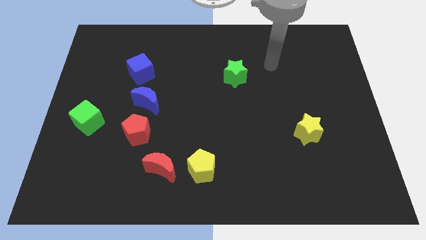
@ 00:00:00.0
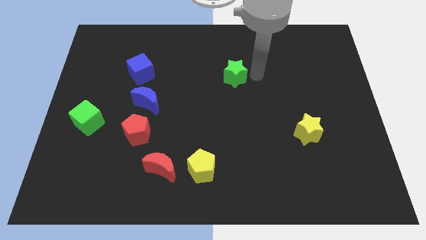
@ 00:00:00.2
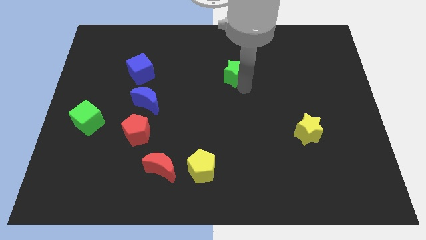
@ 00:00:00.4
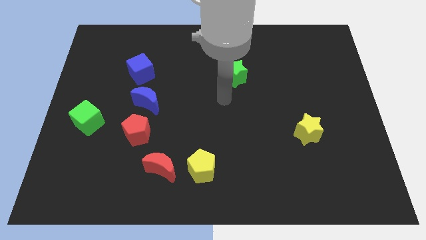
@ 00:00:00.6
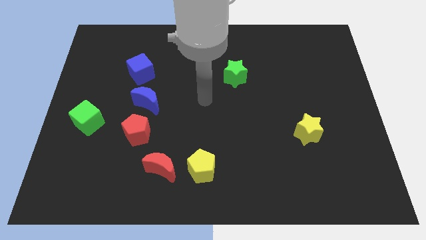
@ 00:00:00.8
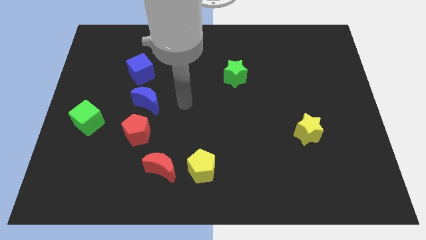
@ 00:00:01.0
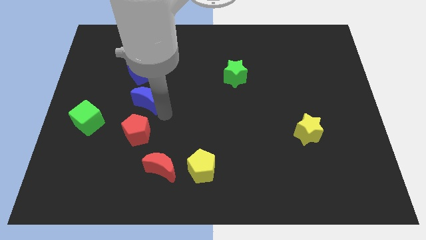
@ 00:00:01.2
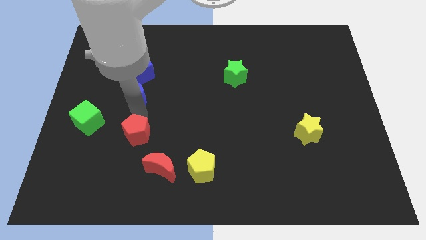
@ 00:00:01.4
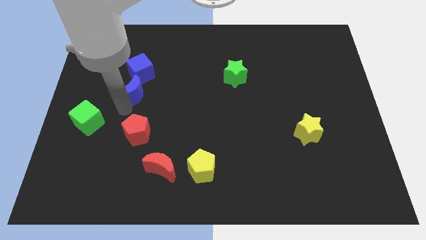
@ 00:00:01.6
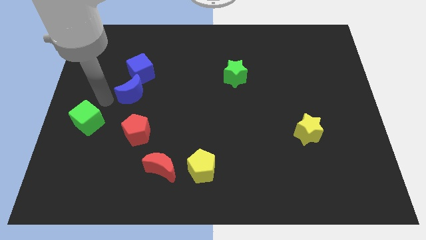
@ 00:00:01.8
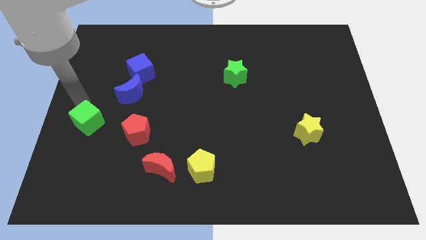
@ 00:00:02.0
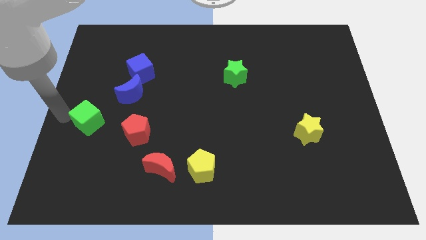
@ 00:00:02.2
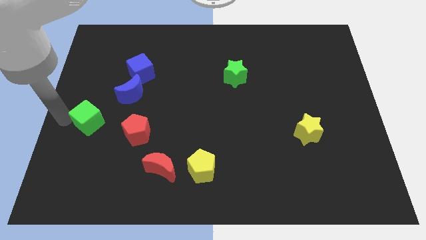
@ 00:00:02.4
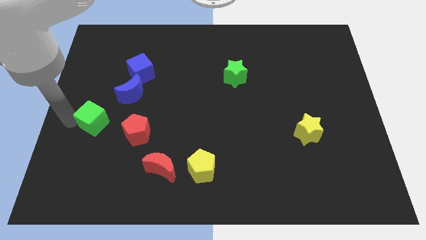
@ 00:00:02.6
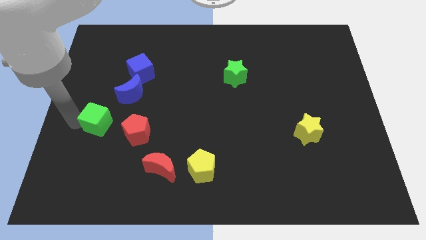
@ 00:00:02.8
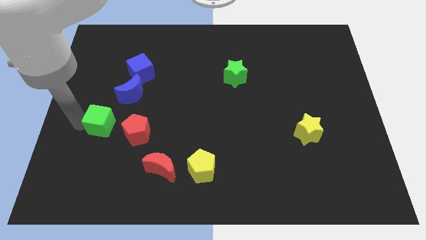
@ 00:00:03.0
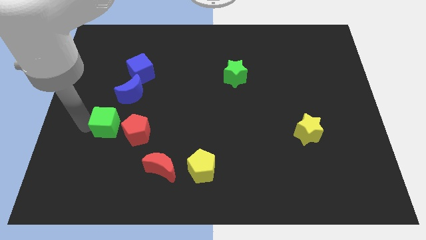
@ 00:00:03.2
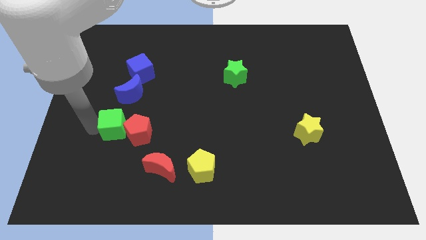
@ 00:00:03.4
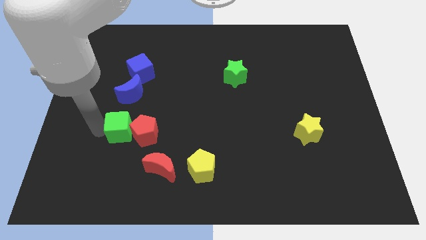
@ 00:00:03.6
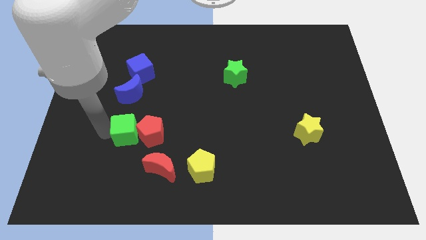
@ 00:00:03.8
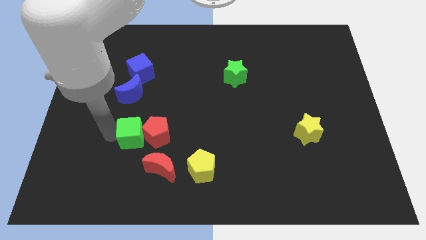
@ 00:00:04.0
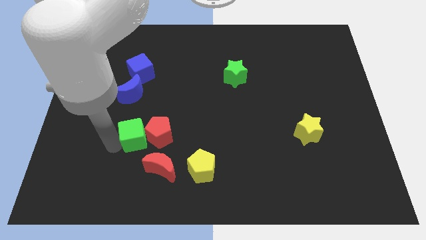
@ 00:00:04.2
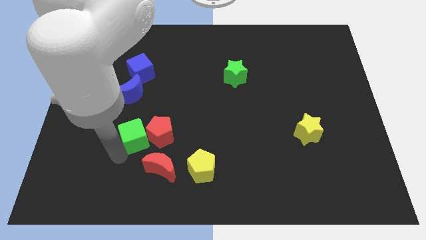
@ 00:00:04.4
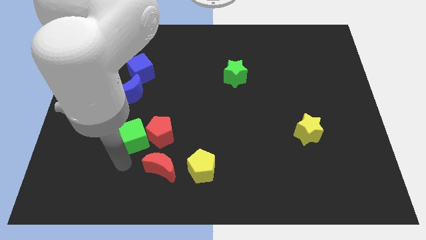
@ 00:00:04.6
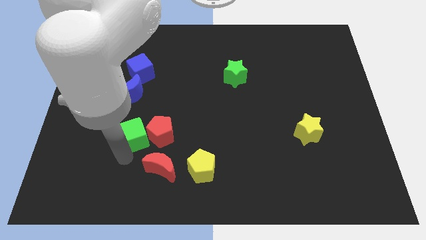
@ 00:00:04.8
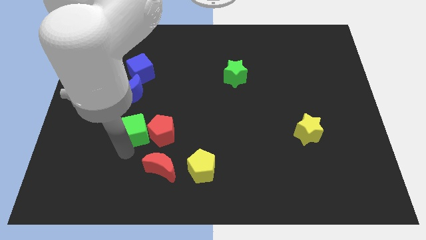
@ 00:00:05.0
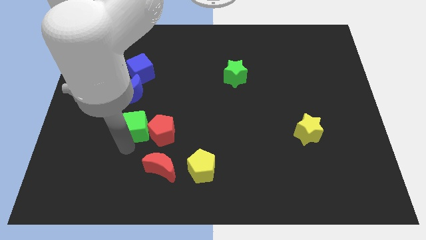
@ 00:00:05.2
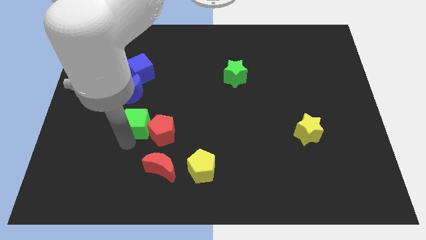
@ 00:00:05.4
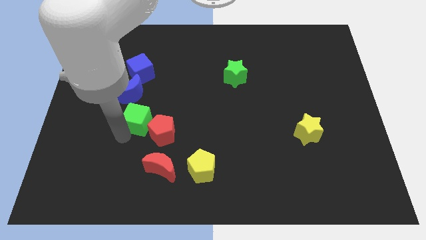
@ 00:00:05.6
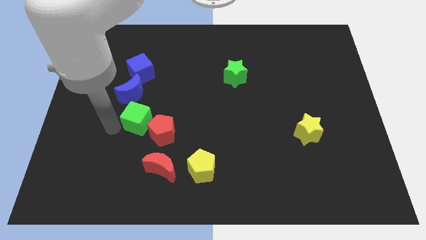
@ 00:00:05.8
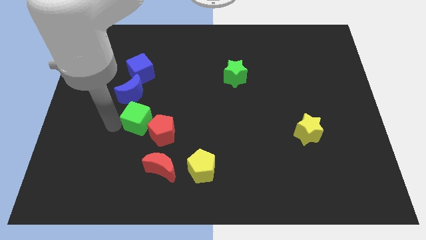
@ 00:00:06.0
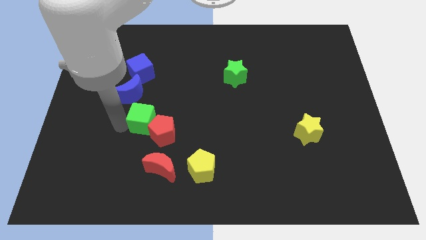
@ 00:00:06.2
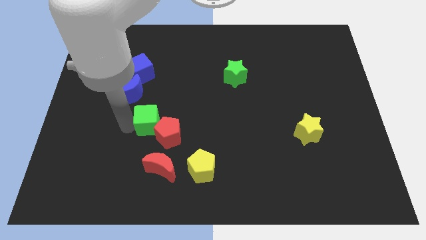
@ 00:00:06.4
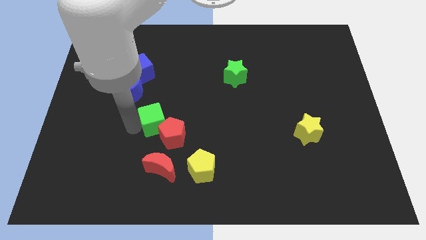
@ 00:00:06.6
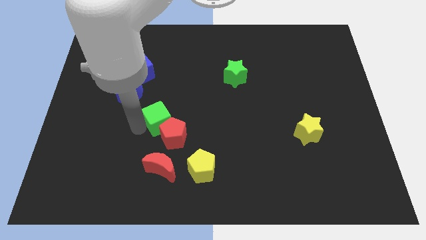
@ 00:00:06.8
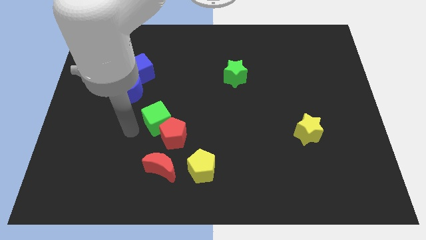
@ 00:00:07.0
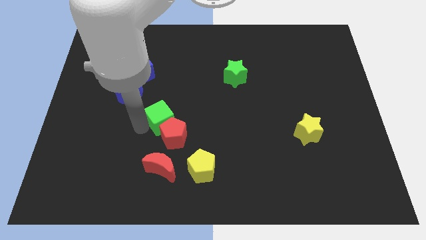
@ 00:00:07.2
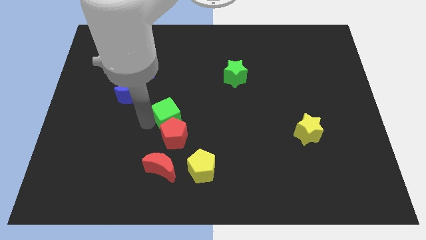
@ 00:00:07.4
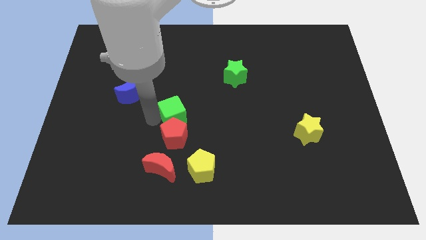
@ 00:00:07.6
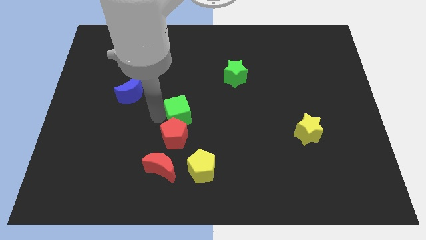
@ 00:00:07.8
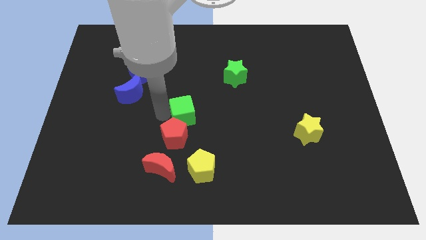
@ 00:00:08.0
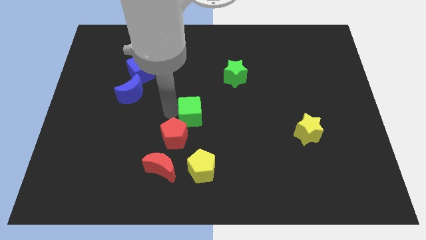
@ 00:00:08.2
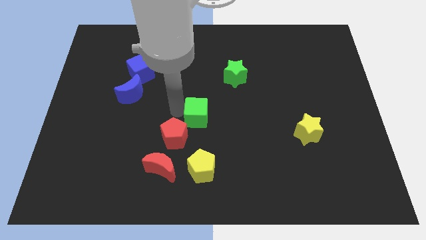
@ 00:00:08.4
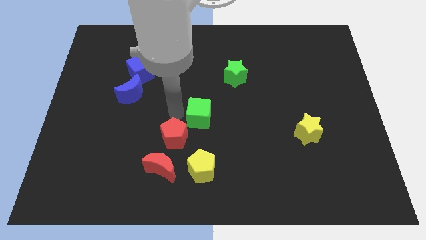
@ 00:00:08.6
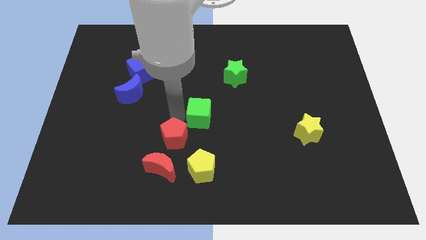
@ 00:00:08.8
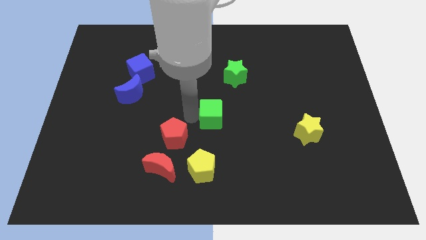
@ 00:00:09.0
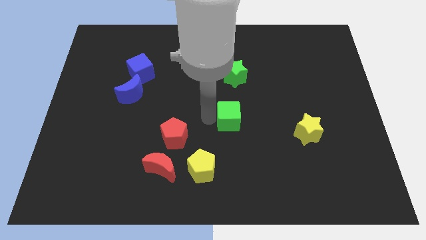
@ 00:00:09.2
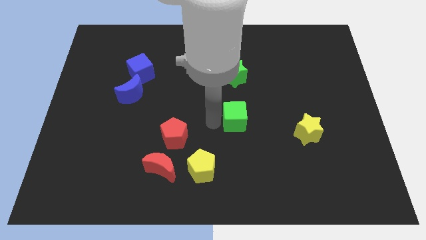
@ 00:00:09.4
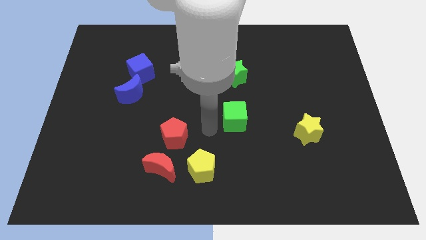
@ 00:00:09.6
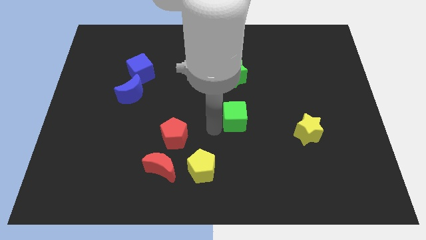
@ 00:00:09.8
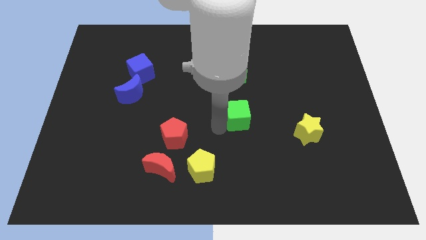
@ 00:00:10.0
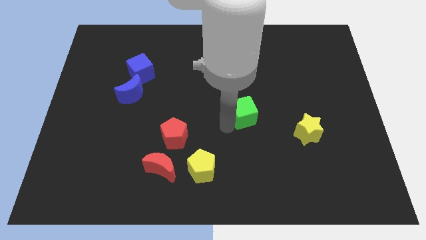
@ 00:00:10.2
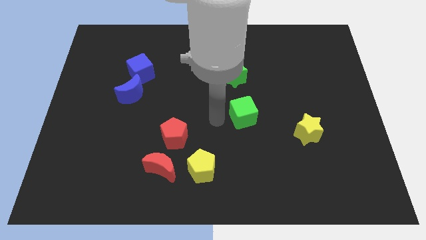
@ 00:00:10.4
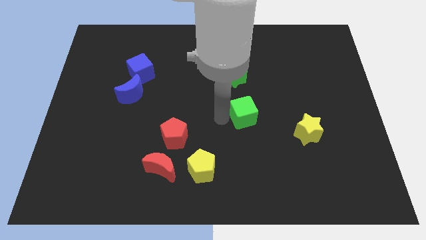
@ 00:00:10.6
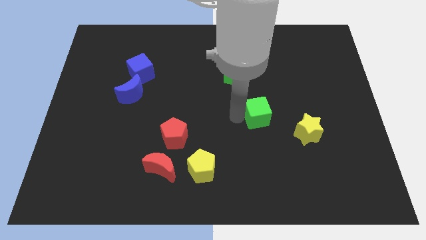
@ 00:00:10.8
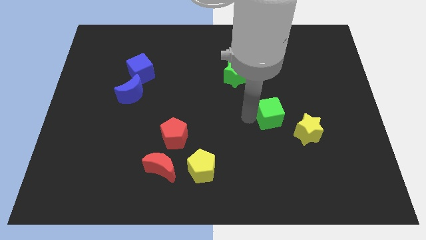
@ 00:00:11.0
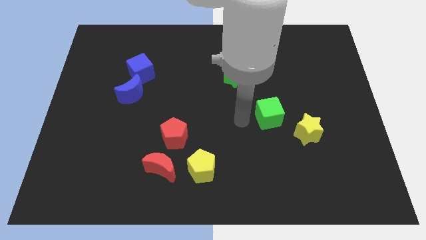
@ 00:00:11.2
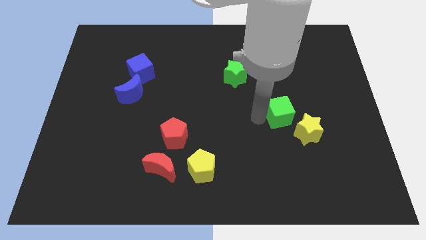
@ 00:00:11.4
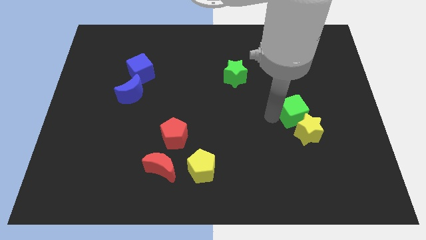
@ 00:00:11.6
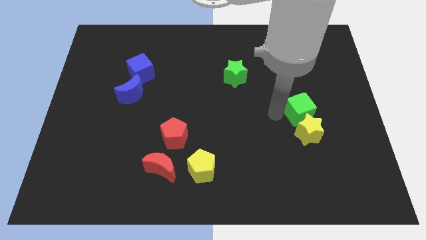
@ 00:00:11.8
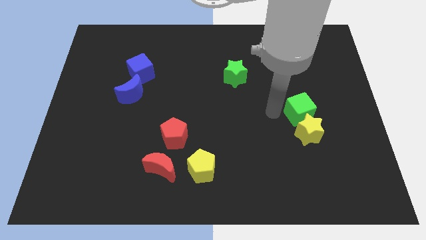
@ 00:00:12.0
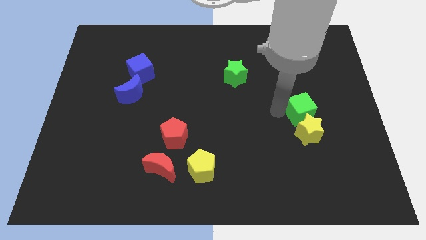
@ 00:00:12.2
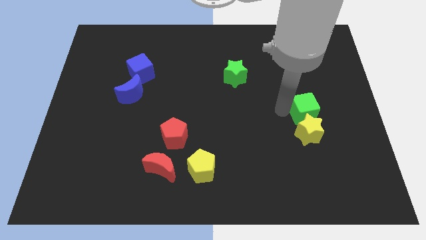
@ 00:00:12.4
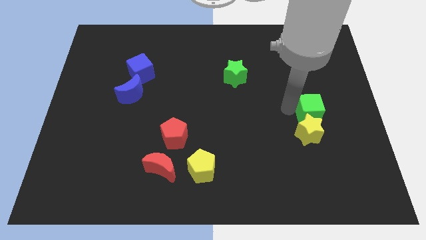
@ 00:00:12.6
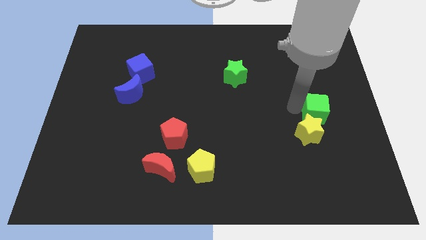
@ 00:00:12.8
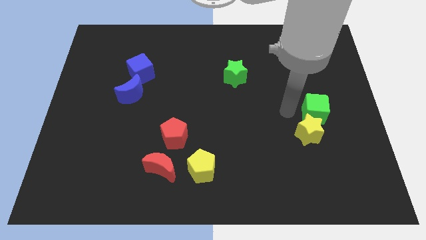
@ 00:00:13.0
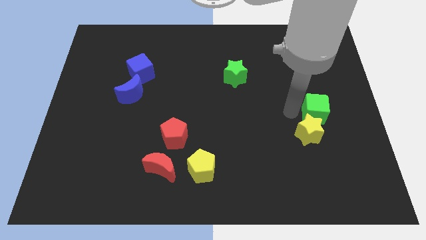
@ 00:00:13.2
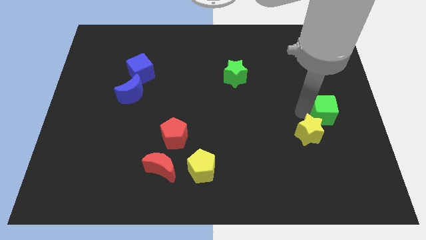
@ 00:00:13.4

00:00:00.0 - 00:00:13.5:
put the green cube to the right side
